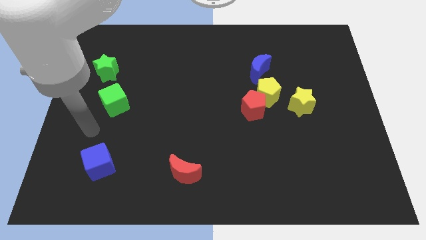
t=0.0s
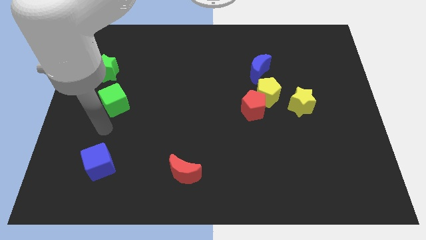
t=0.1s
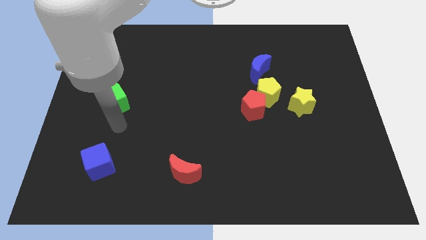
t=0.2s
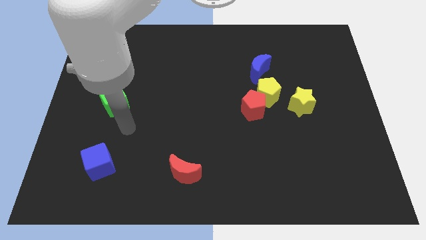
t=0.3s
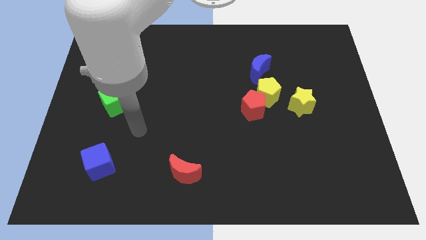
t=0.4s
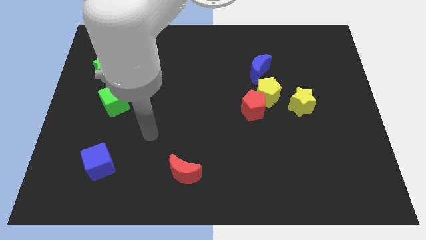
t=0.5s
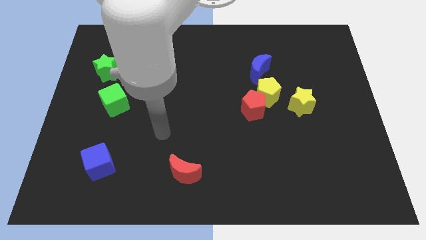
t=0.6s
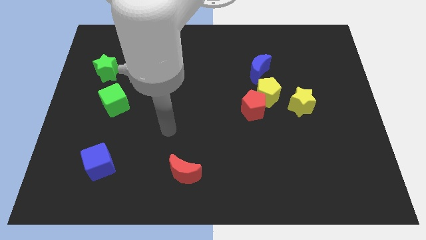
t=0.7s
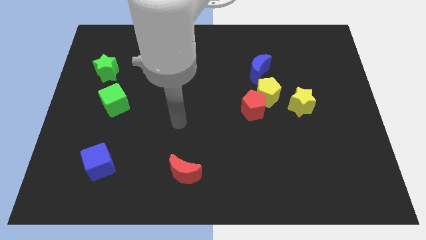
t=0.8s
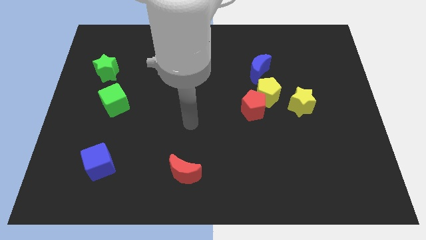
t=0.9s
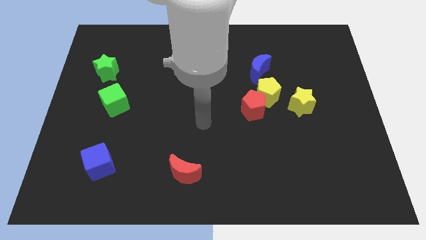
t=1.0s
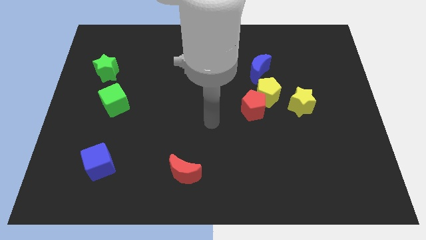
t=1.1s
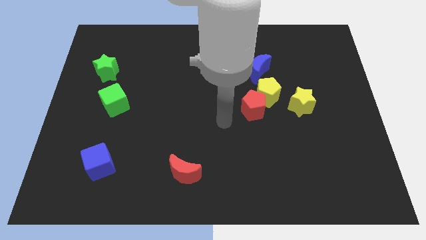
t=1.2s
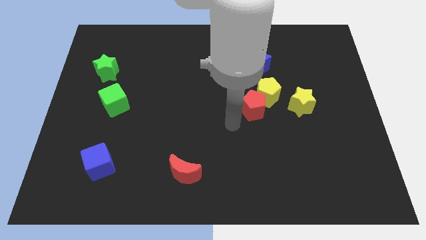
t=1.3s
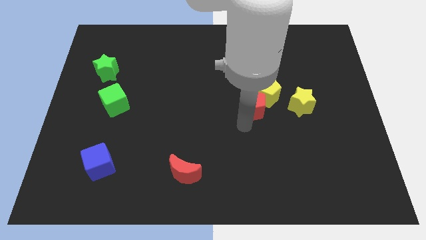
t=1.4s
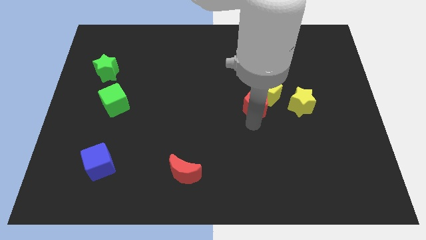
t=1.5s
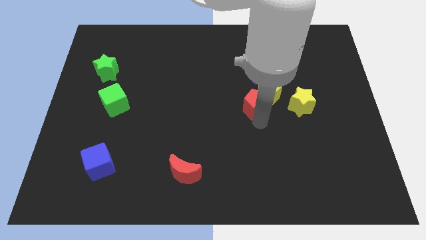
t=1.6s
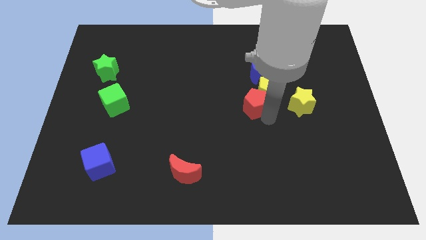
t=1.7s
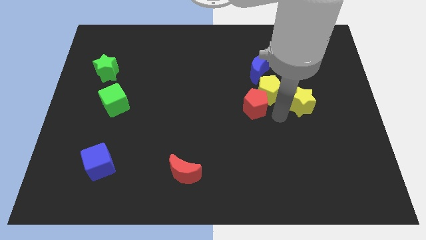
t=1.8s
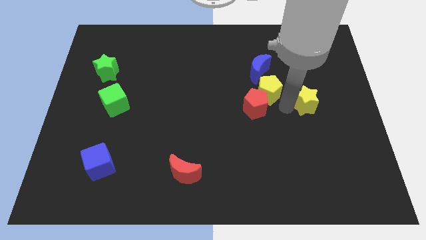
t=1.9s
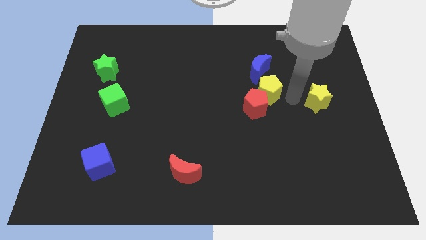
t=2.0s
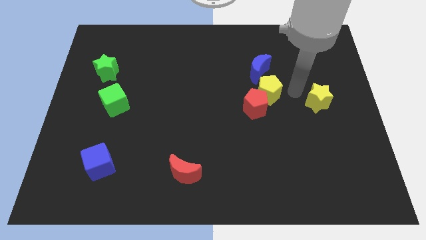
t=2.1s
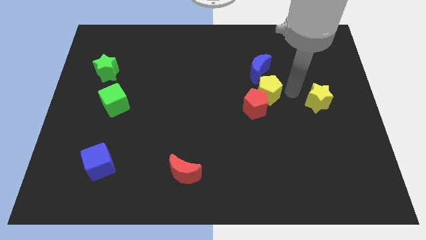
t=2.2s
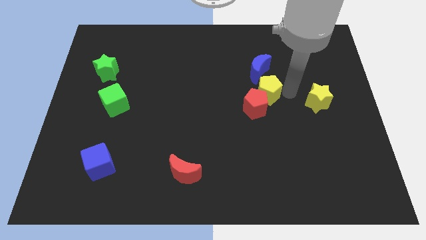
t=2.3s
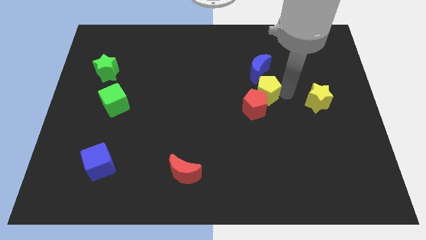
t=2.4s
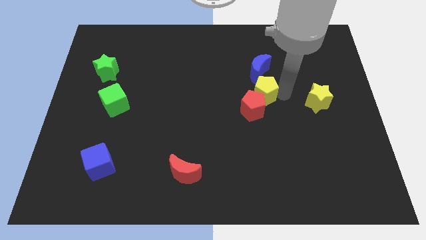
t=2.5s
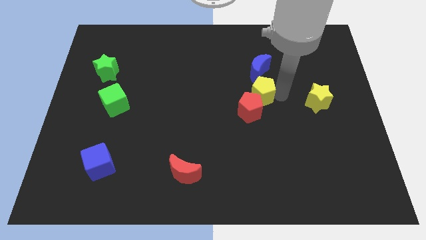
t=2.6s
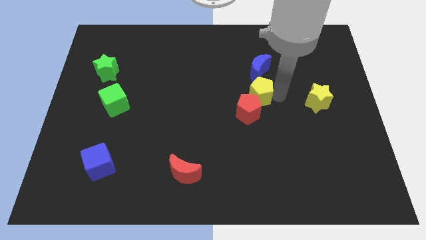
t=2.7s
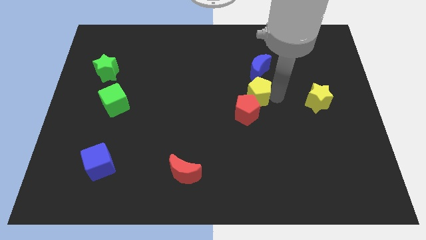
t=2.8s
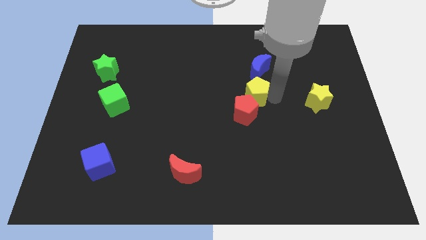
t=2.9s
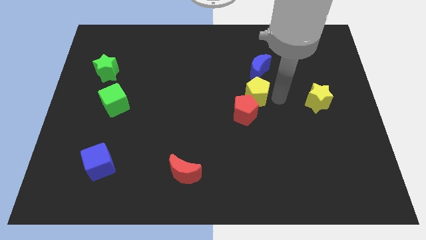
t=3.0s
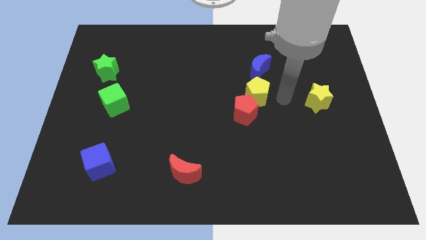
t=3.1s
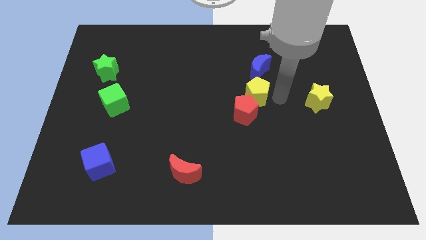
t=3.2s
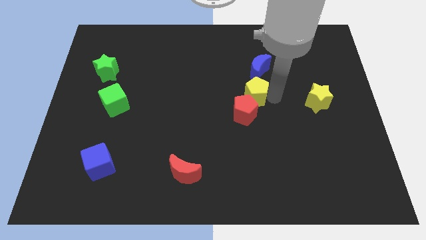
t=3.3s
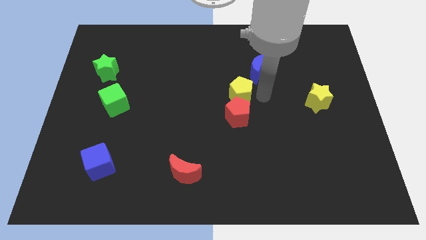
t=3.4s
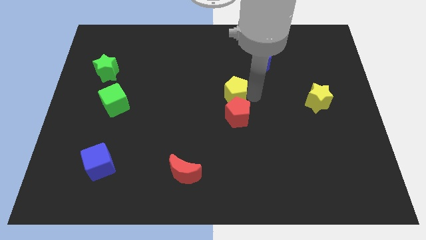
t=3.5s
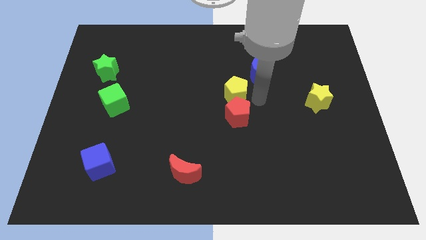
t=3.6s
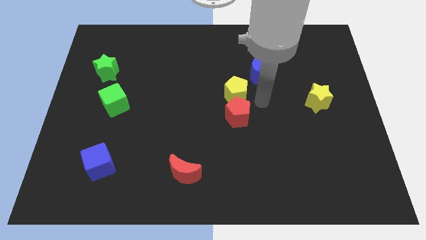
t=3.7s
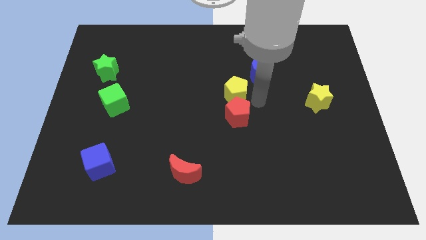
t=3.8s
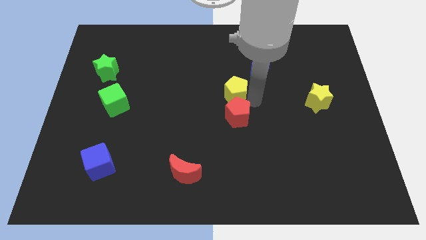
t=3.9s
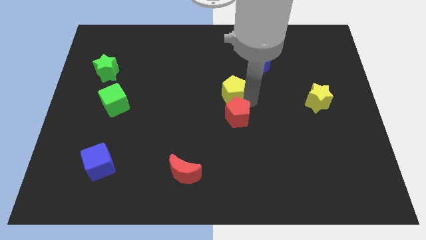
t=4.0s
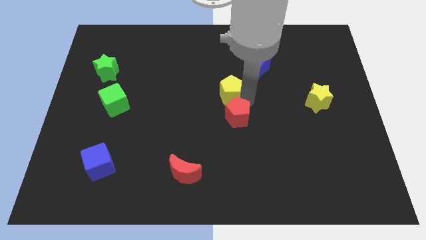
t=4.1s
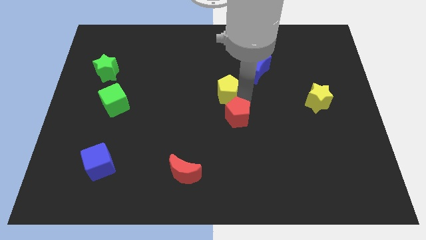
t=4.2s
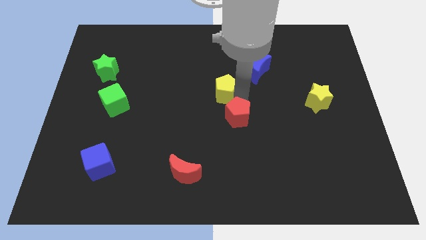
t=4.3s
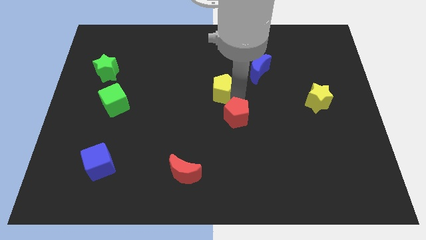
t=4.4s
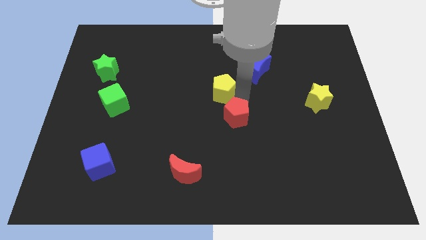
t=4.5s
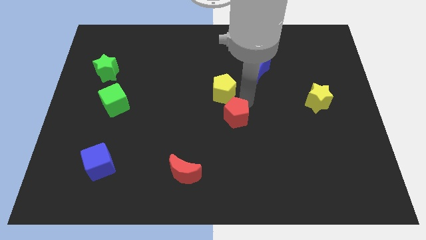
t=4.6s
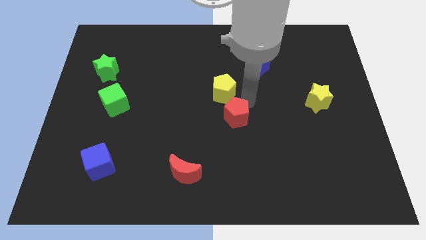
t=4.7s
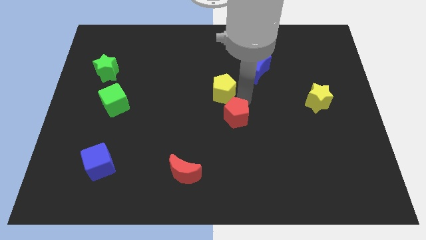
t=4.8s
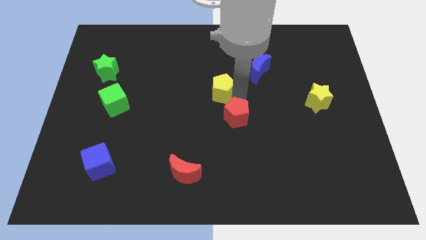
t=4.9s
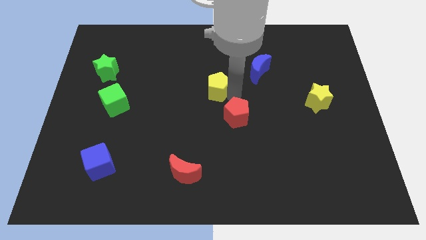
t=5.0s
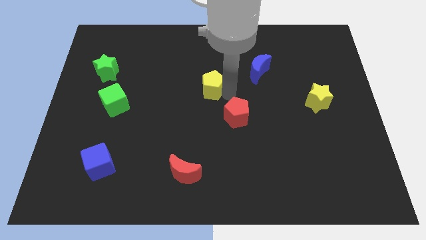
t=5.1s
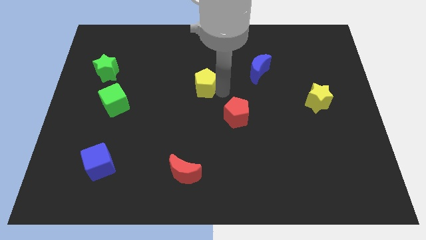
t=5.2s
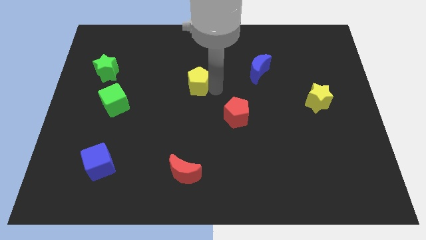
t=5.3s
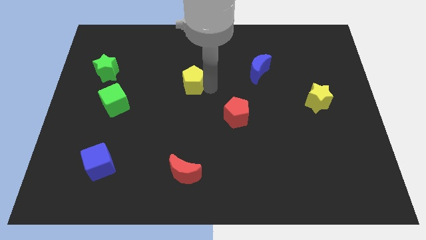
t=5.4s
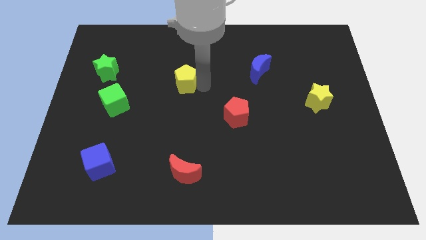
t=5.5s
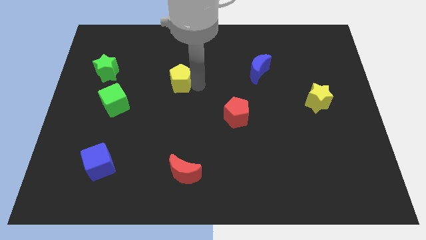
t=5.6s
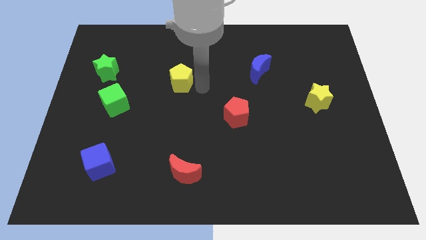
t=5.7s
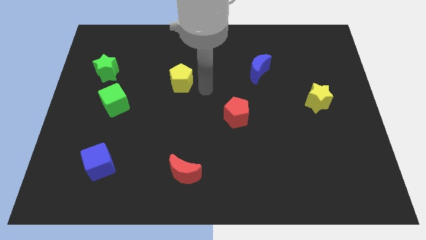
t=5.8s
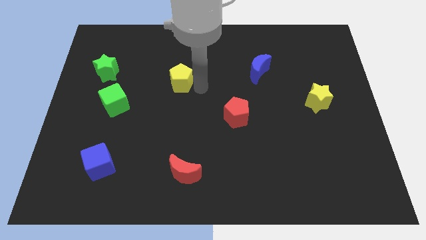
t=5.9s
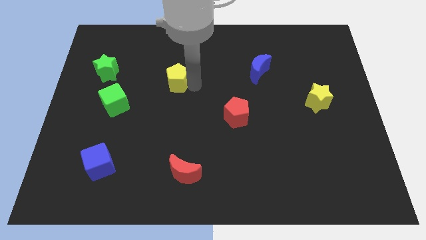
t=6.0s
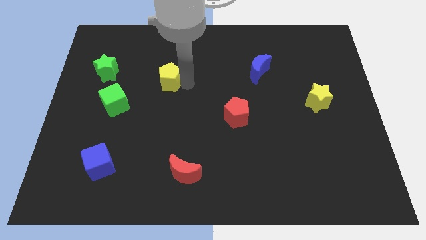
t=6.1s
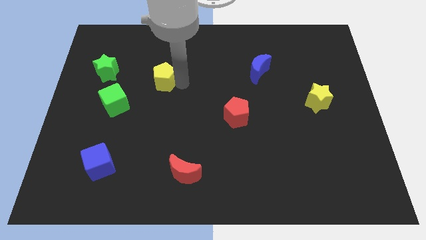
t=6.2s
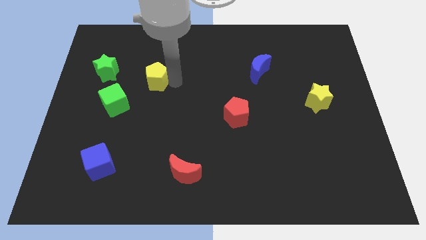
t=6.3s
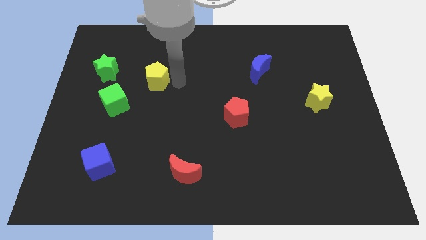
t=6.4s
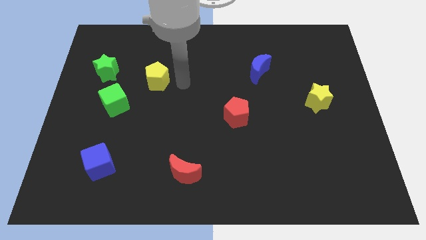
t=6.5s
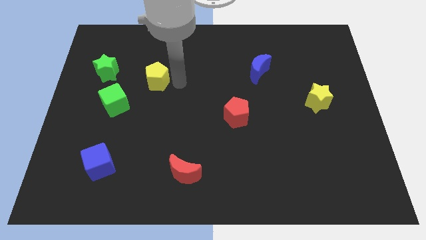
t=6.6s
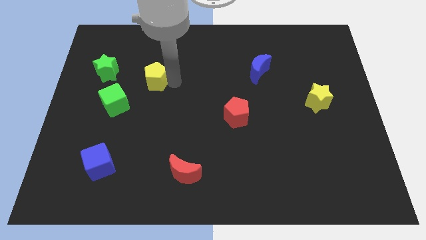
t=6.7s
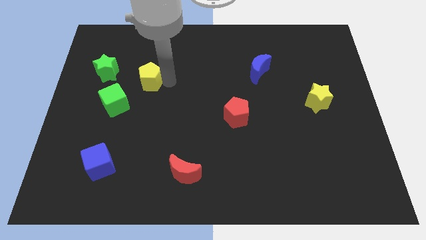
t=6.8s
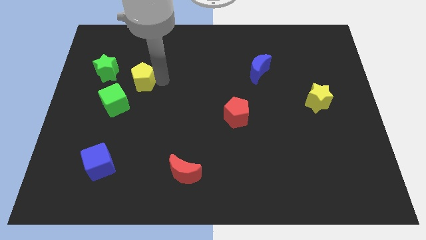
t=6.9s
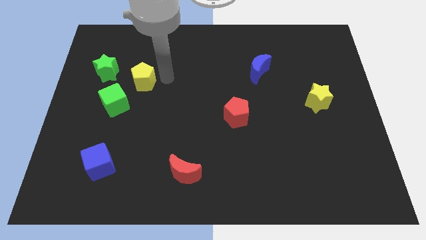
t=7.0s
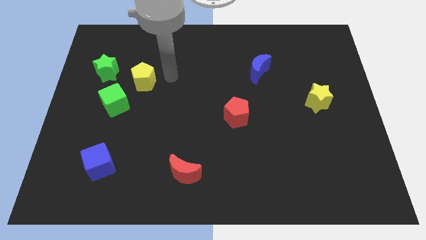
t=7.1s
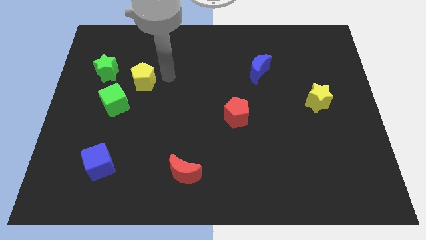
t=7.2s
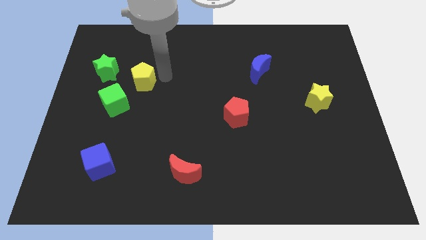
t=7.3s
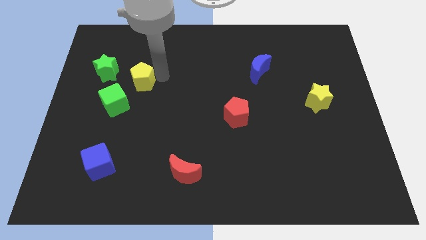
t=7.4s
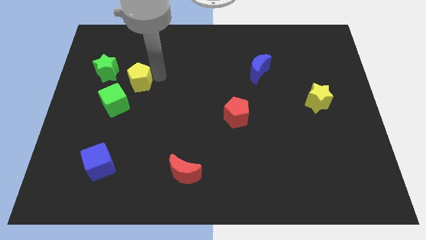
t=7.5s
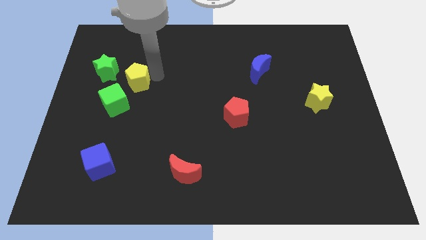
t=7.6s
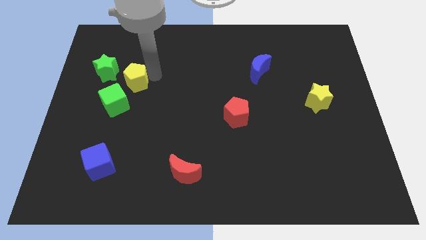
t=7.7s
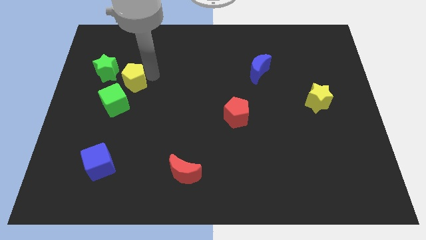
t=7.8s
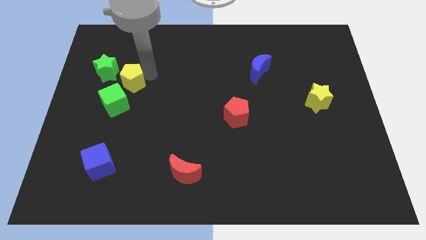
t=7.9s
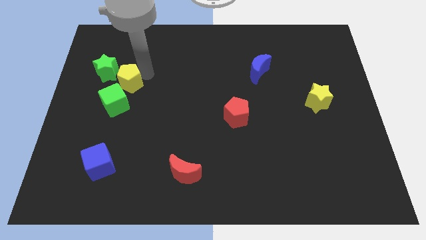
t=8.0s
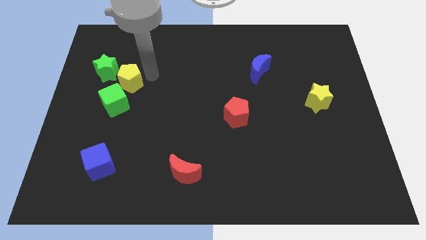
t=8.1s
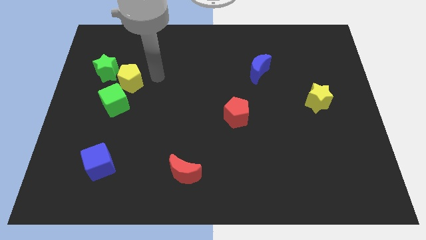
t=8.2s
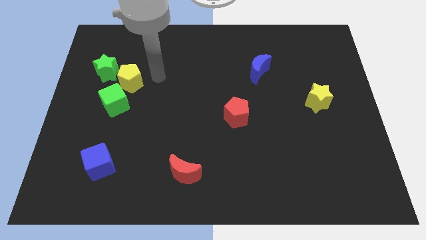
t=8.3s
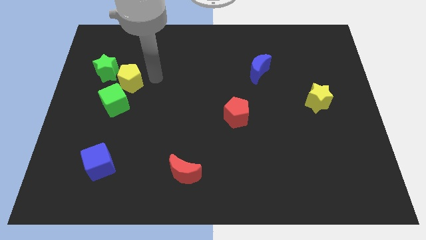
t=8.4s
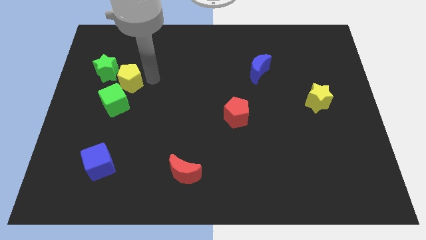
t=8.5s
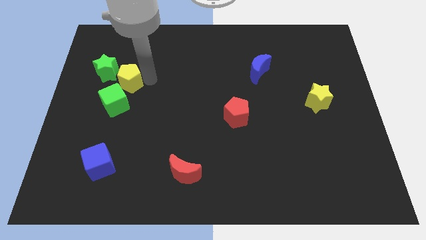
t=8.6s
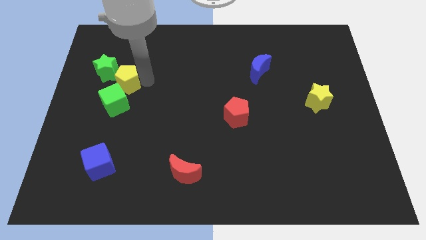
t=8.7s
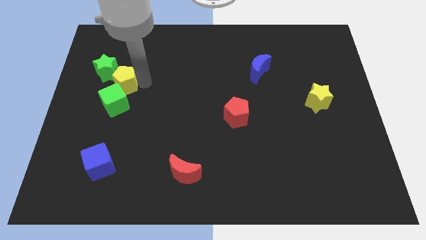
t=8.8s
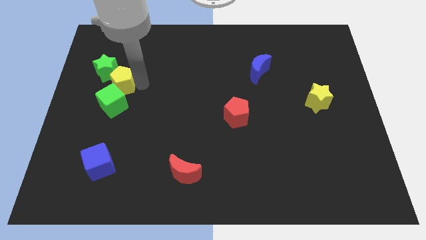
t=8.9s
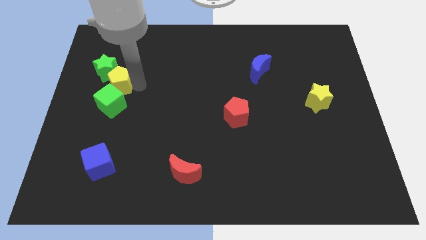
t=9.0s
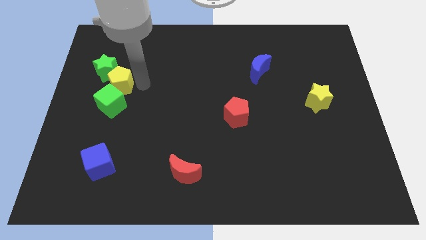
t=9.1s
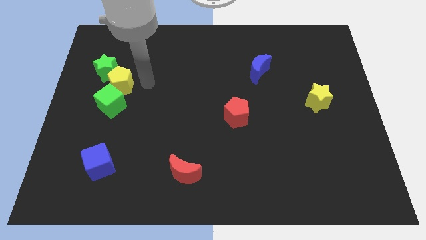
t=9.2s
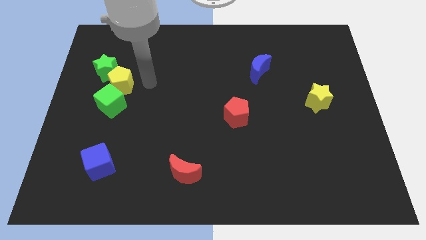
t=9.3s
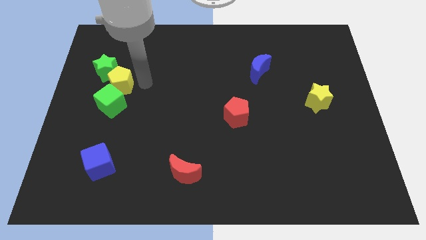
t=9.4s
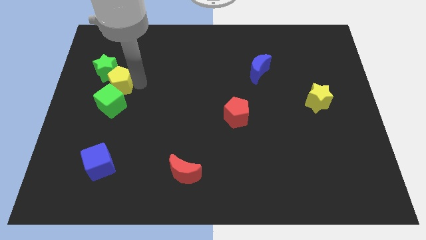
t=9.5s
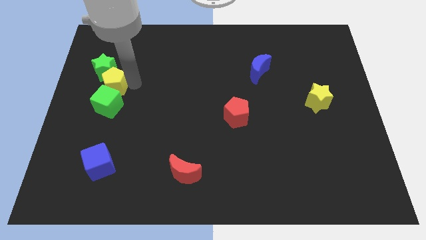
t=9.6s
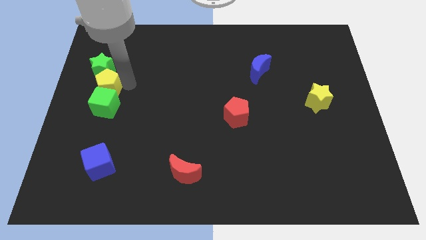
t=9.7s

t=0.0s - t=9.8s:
put the yellow pentagon to the left side of the board
